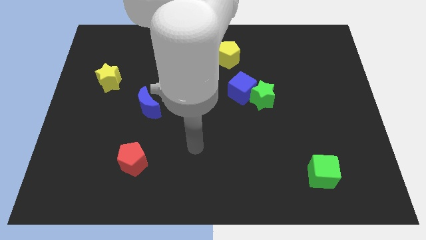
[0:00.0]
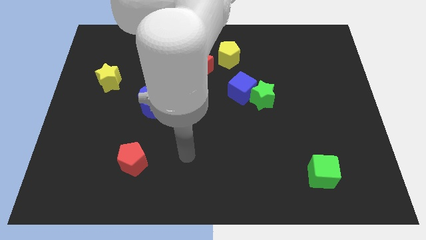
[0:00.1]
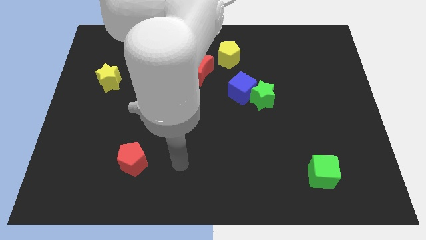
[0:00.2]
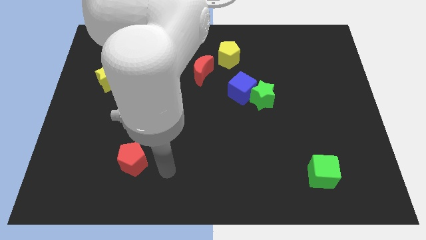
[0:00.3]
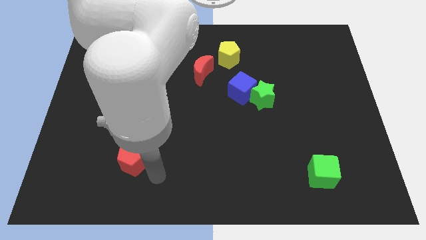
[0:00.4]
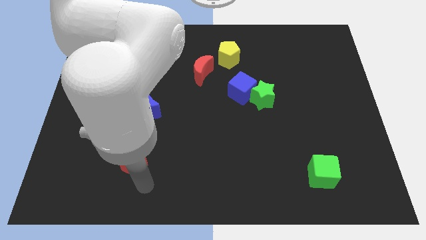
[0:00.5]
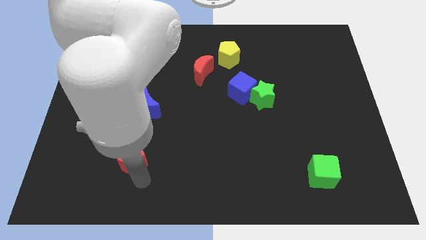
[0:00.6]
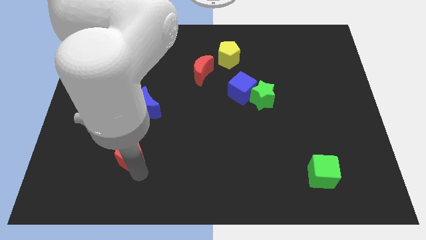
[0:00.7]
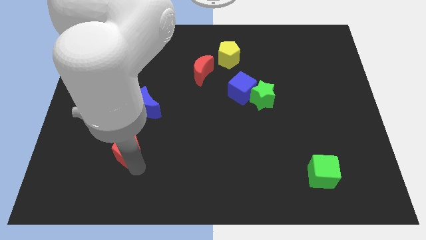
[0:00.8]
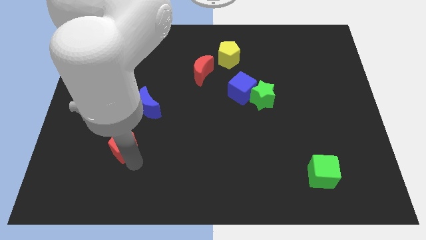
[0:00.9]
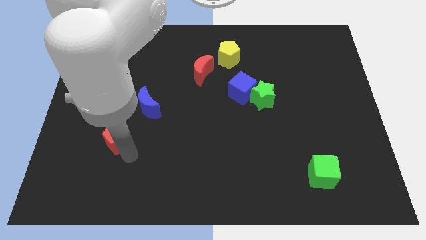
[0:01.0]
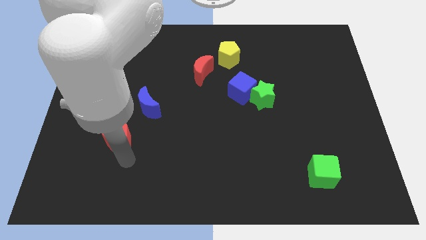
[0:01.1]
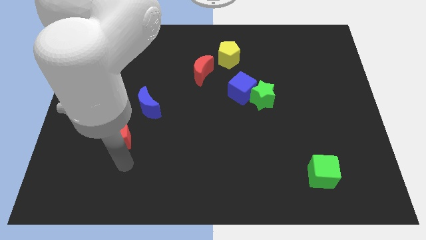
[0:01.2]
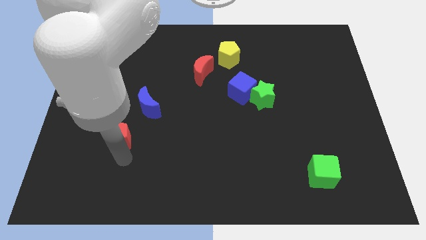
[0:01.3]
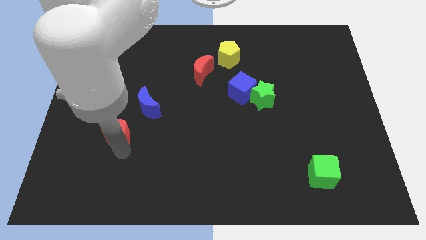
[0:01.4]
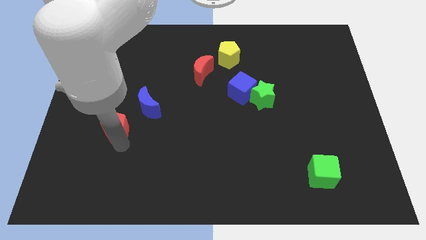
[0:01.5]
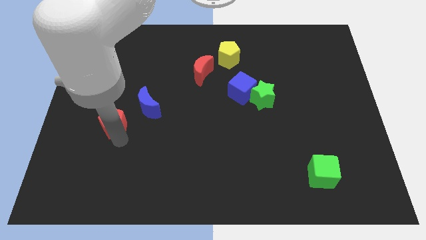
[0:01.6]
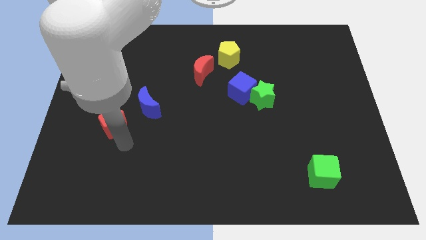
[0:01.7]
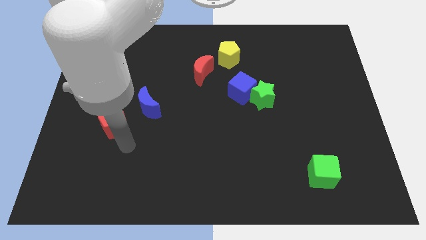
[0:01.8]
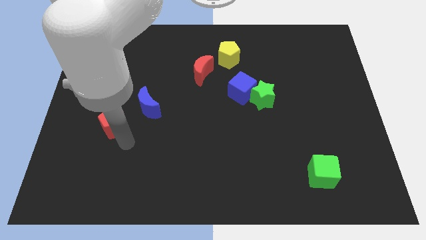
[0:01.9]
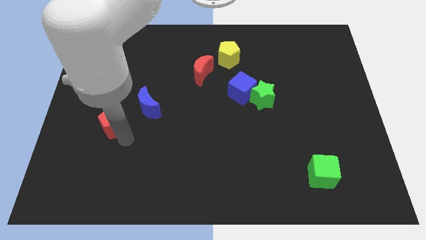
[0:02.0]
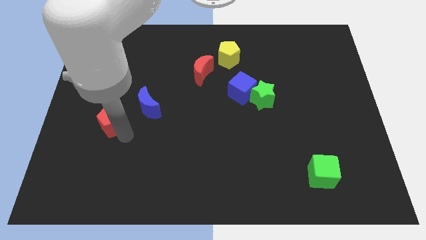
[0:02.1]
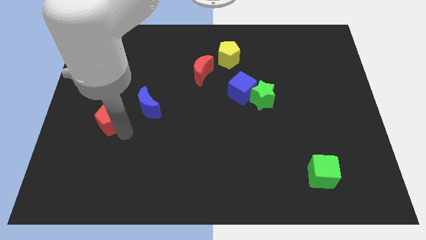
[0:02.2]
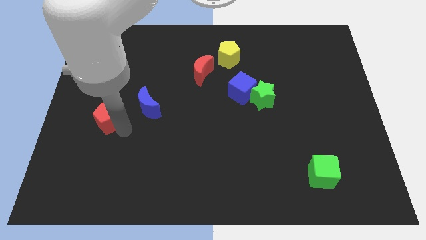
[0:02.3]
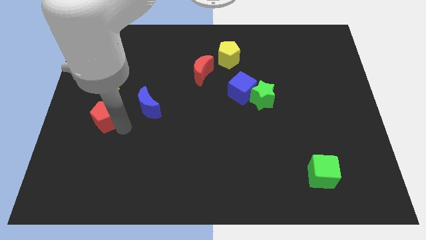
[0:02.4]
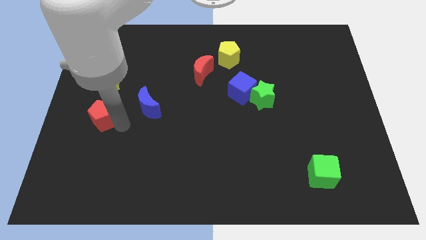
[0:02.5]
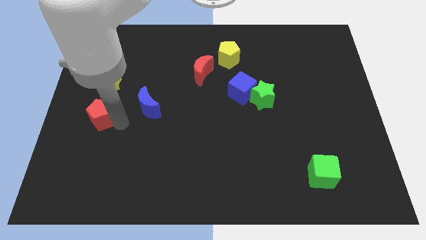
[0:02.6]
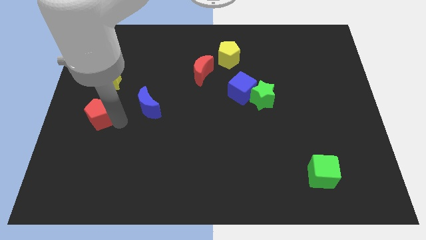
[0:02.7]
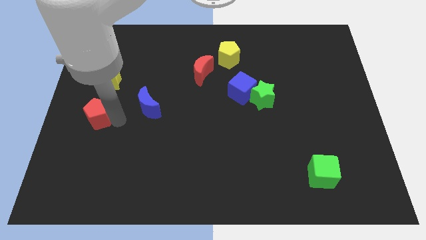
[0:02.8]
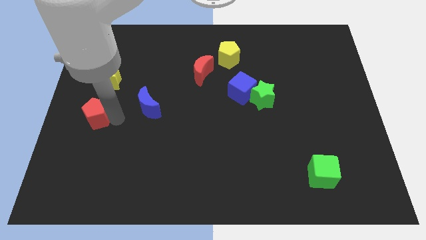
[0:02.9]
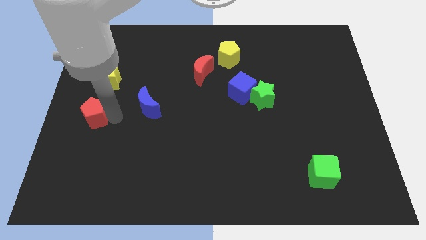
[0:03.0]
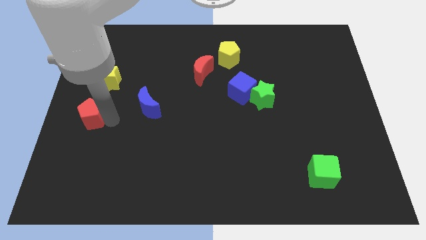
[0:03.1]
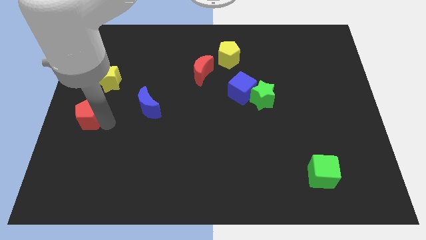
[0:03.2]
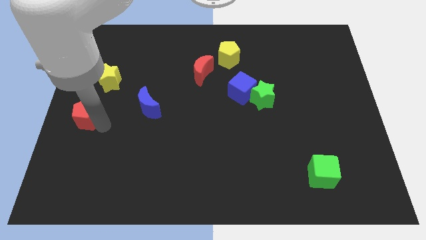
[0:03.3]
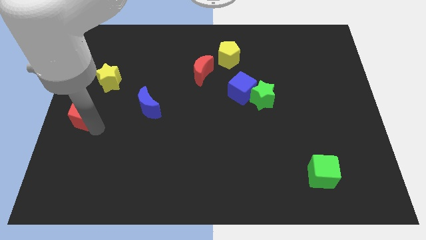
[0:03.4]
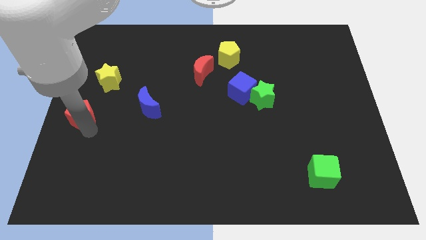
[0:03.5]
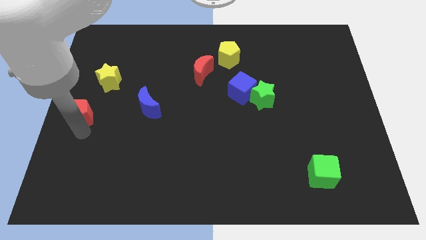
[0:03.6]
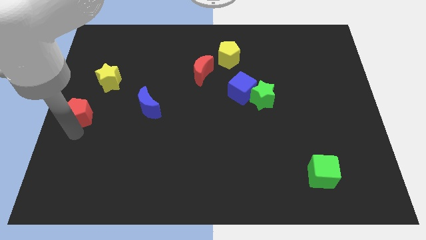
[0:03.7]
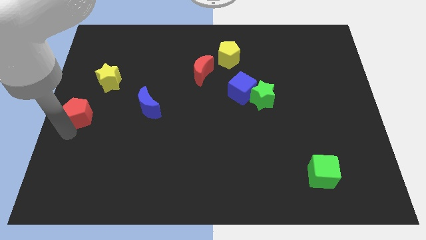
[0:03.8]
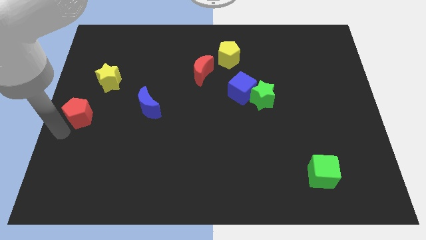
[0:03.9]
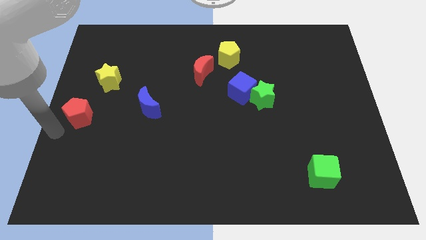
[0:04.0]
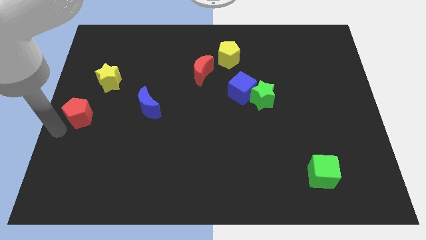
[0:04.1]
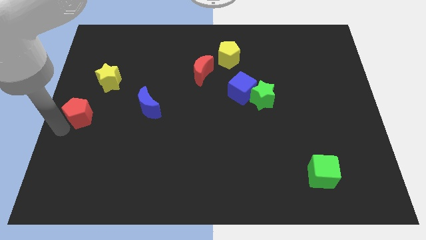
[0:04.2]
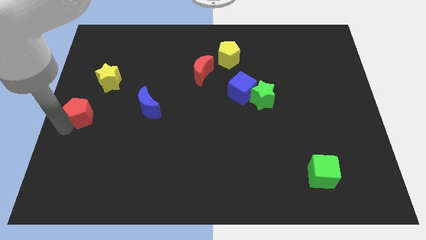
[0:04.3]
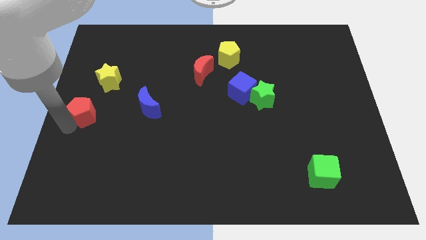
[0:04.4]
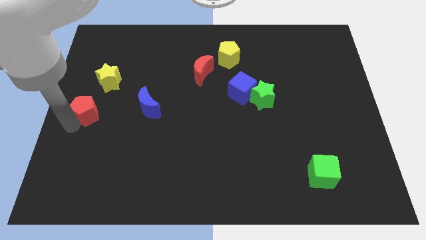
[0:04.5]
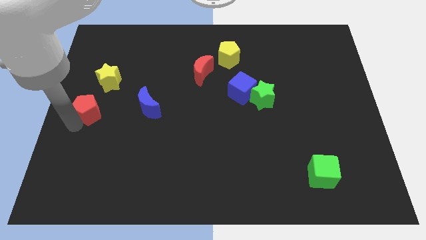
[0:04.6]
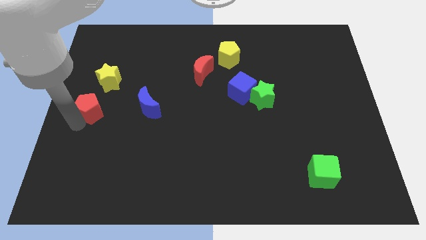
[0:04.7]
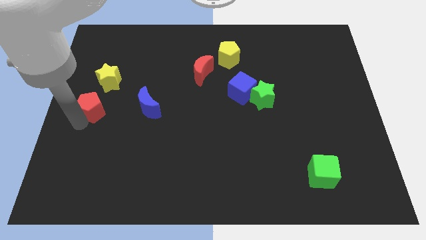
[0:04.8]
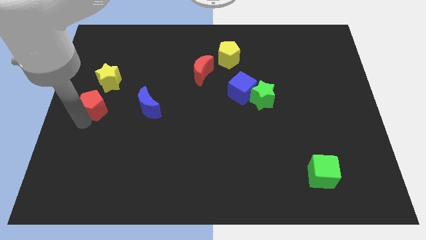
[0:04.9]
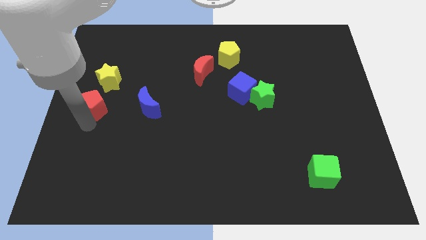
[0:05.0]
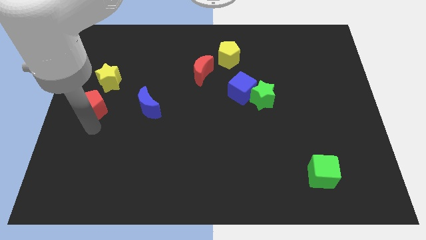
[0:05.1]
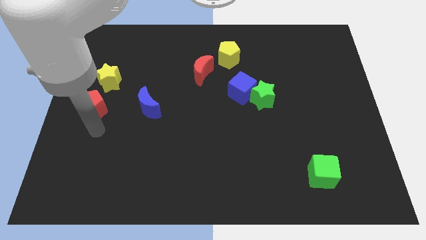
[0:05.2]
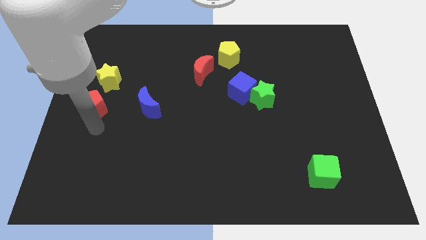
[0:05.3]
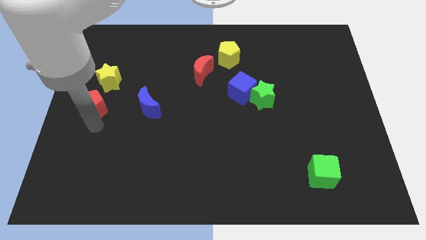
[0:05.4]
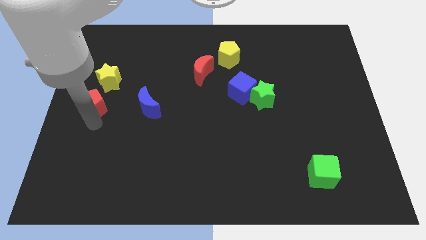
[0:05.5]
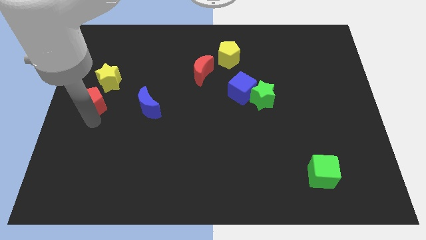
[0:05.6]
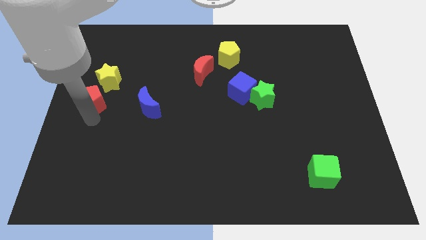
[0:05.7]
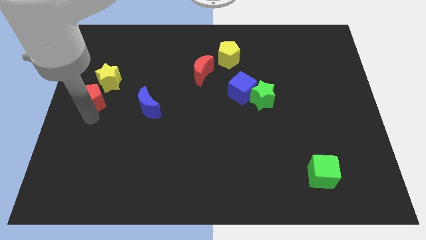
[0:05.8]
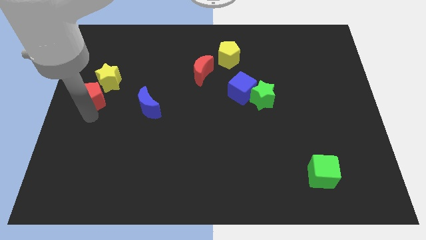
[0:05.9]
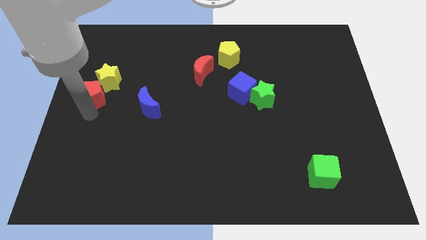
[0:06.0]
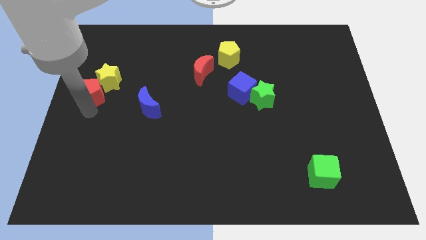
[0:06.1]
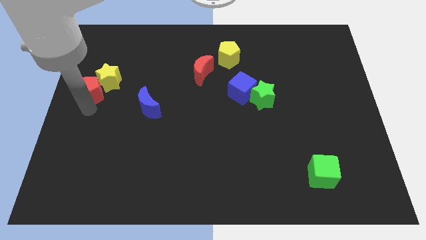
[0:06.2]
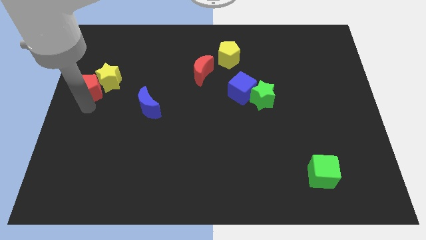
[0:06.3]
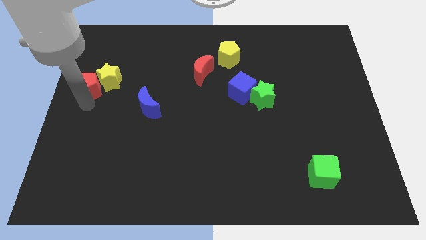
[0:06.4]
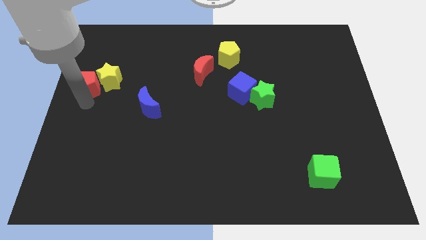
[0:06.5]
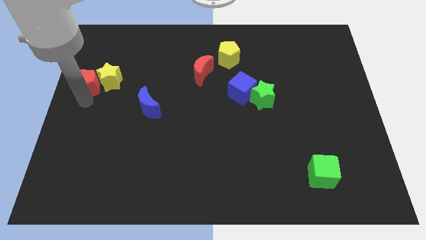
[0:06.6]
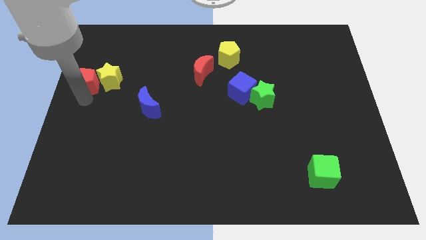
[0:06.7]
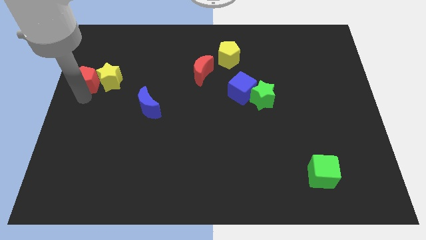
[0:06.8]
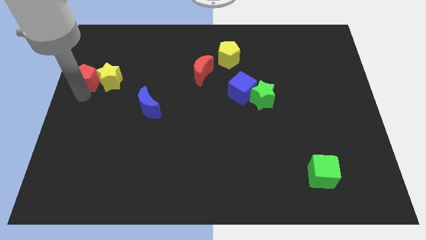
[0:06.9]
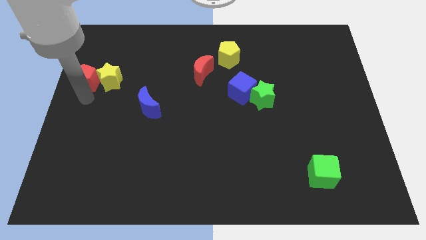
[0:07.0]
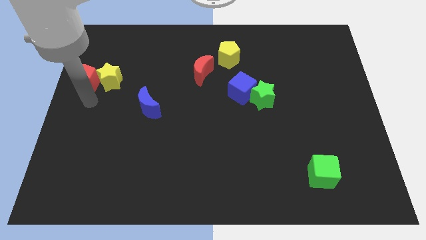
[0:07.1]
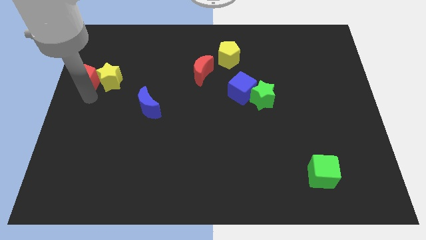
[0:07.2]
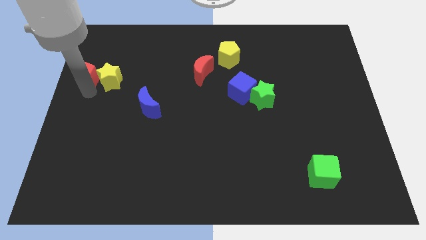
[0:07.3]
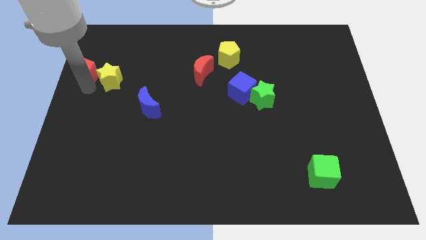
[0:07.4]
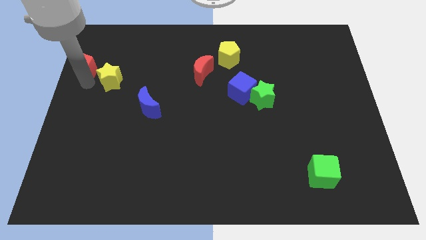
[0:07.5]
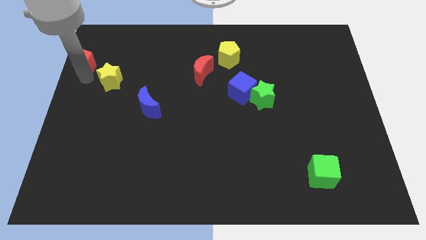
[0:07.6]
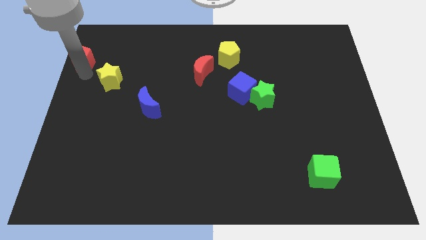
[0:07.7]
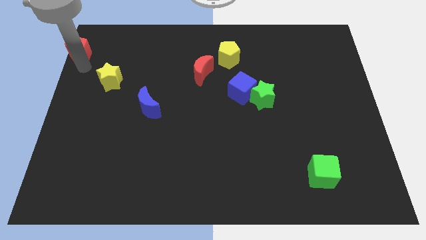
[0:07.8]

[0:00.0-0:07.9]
move the red pentagon to the upper left corner
